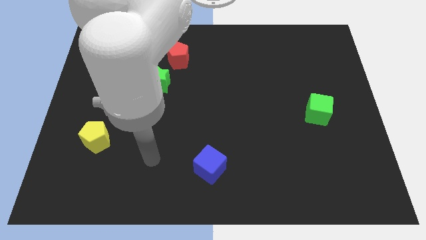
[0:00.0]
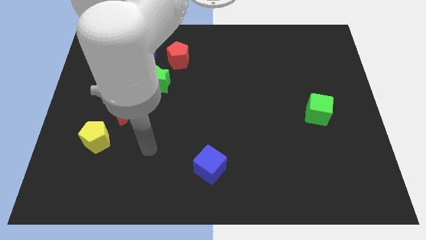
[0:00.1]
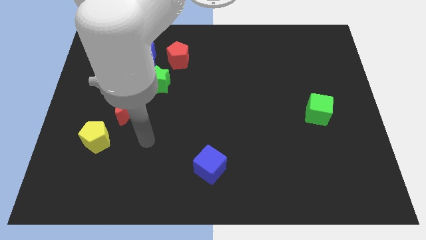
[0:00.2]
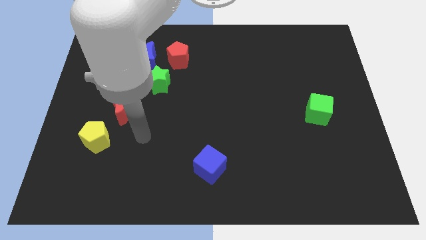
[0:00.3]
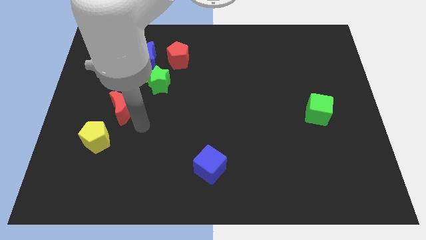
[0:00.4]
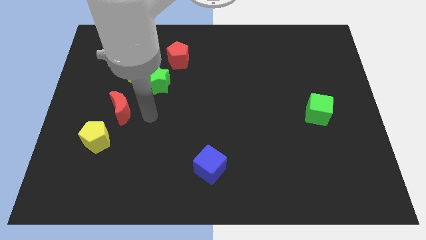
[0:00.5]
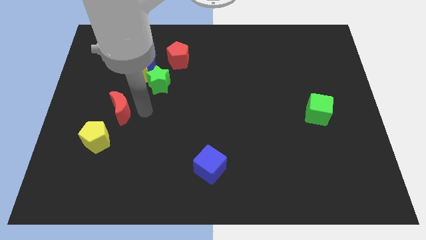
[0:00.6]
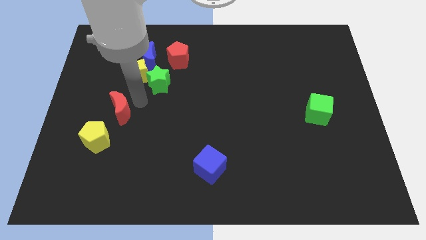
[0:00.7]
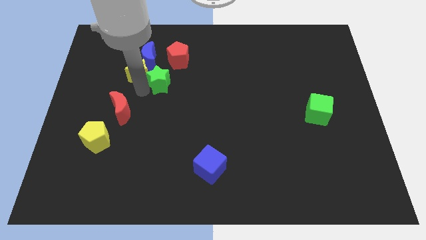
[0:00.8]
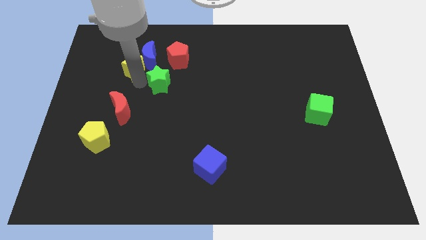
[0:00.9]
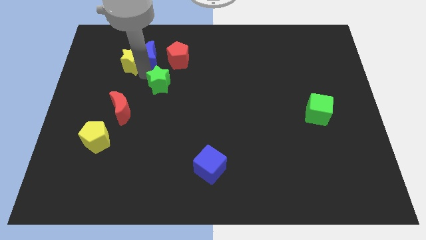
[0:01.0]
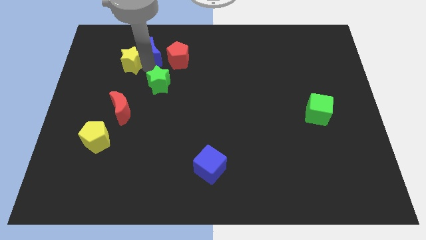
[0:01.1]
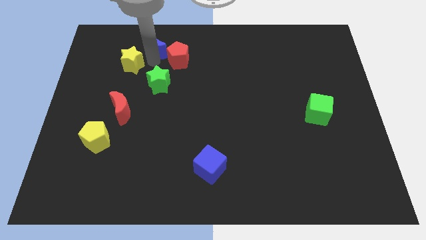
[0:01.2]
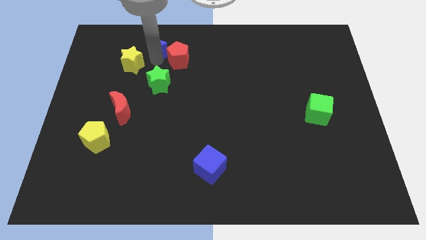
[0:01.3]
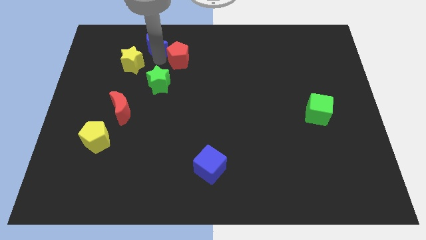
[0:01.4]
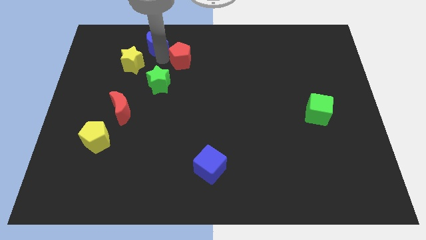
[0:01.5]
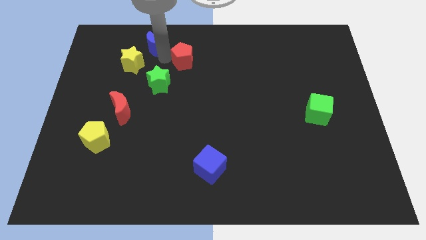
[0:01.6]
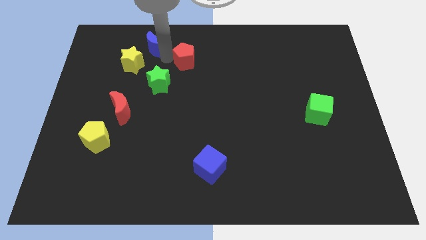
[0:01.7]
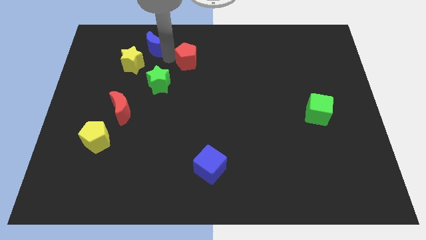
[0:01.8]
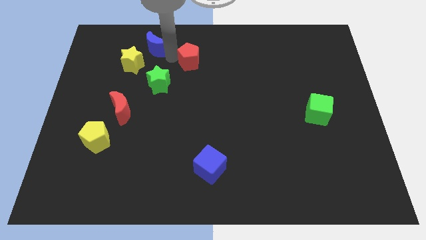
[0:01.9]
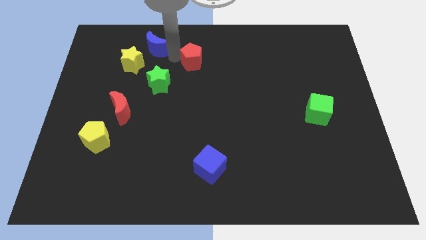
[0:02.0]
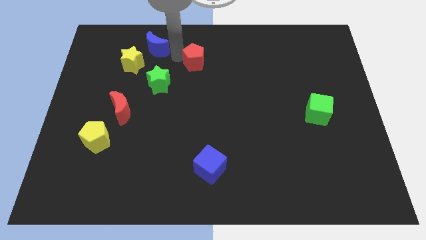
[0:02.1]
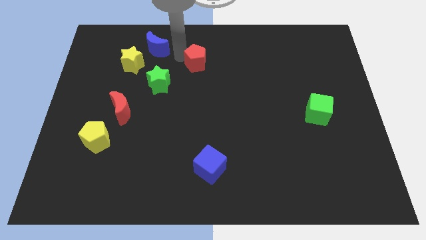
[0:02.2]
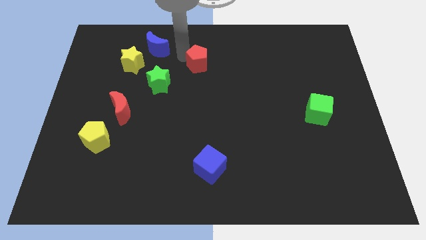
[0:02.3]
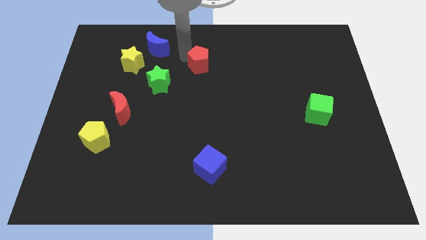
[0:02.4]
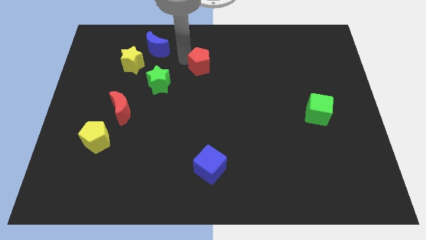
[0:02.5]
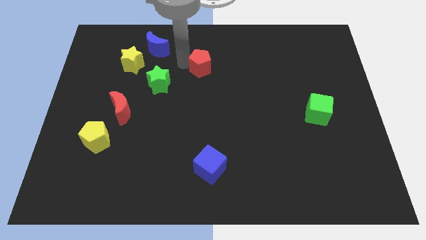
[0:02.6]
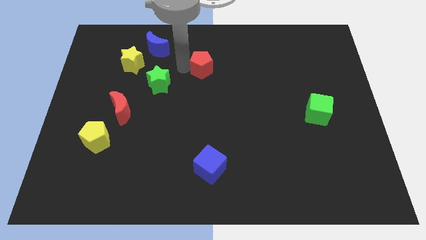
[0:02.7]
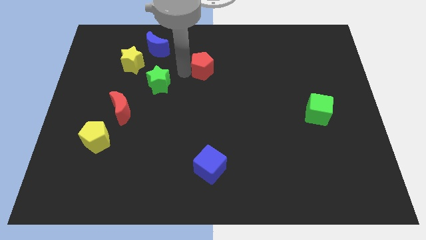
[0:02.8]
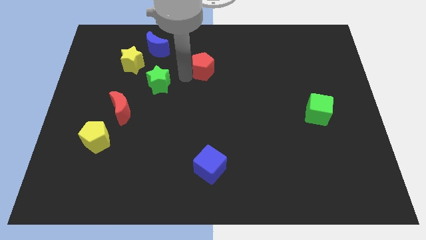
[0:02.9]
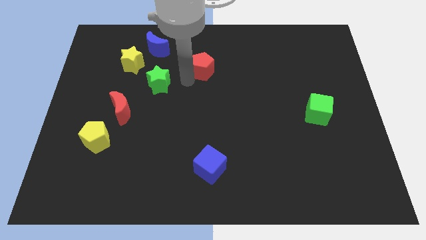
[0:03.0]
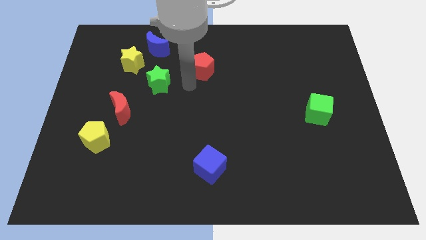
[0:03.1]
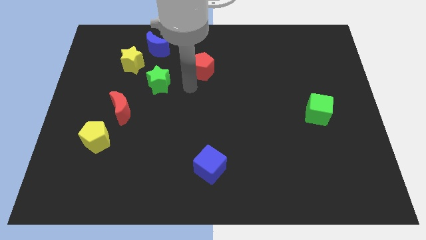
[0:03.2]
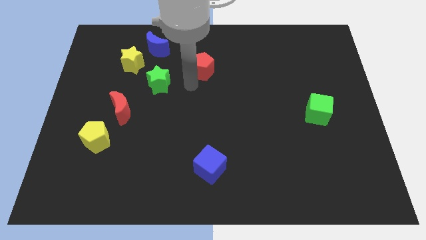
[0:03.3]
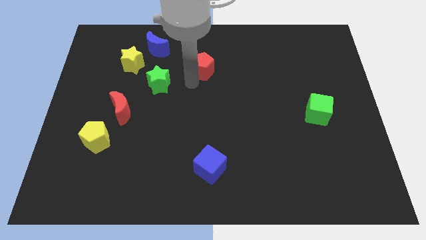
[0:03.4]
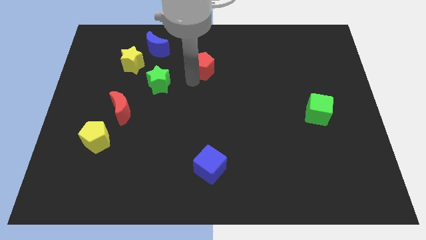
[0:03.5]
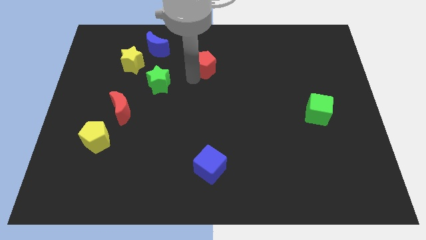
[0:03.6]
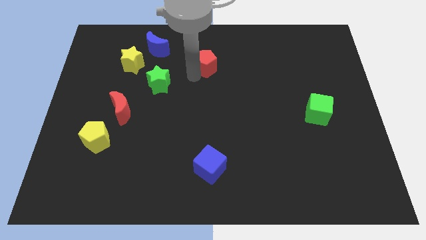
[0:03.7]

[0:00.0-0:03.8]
slide the red pentagon to the right a bit

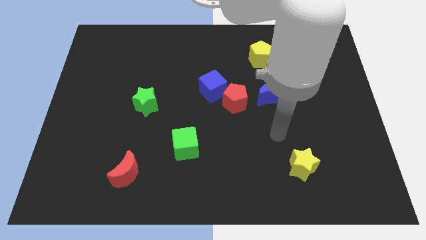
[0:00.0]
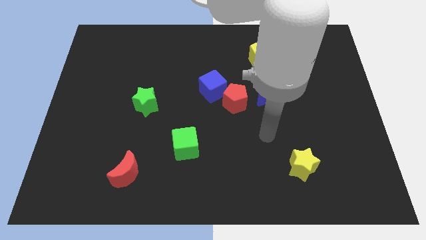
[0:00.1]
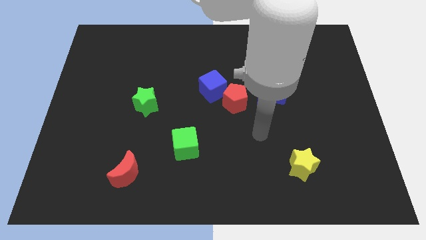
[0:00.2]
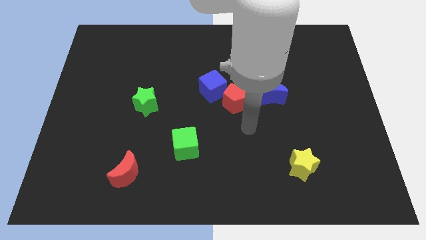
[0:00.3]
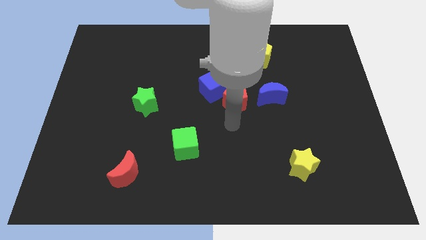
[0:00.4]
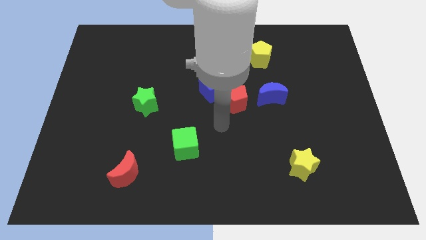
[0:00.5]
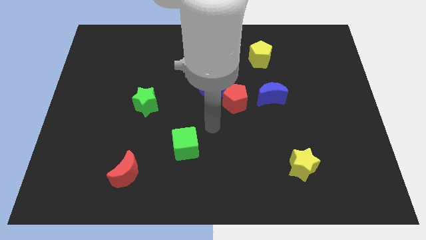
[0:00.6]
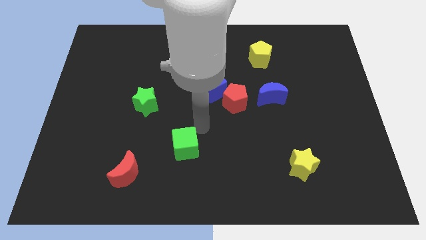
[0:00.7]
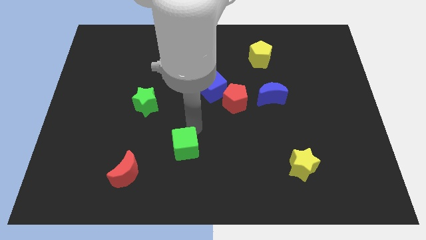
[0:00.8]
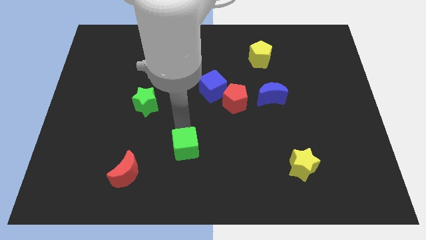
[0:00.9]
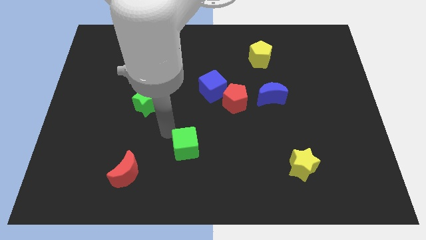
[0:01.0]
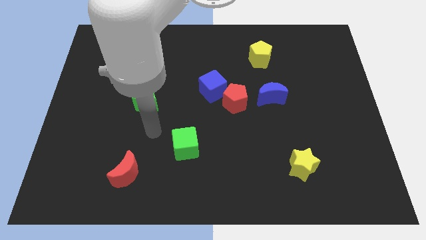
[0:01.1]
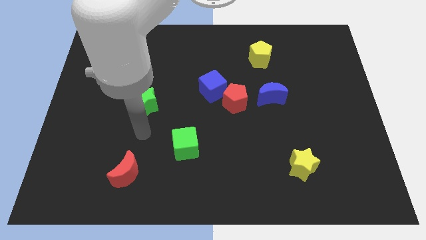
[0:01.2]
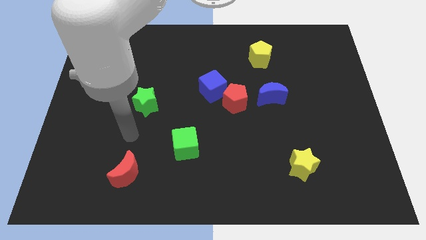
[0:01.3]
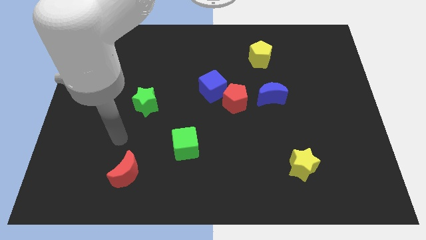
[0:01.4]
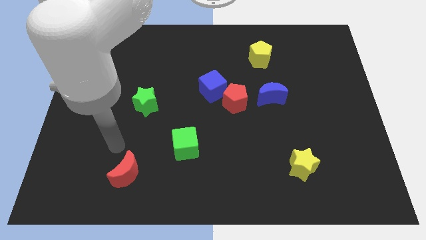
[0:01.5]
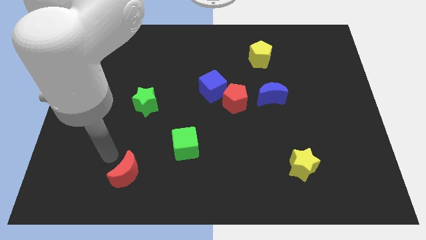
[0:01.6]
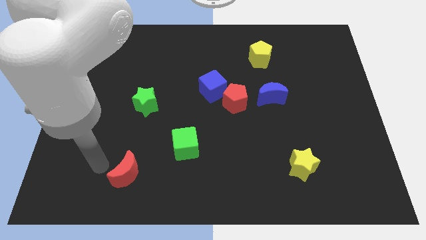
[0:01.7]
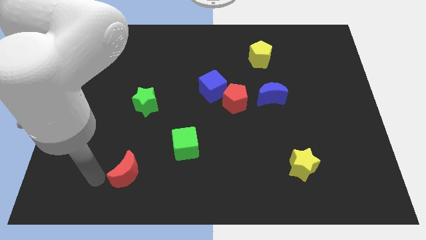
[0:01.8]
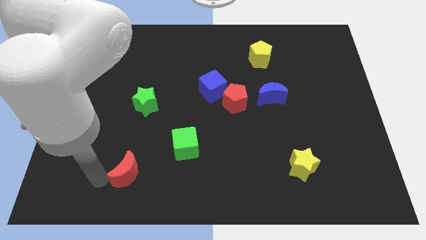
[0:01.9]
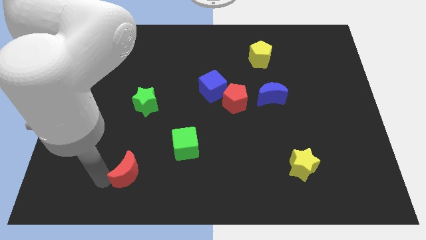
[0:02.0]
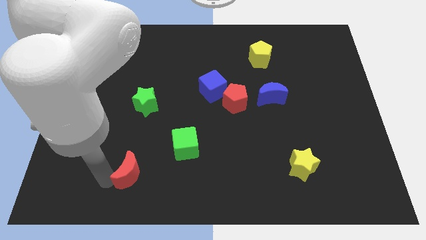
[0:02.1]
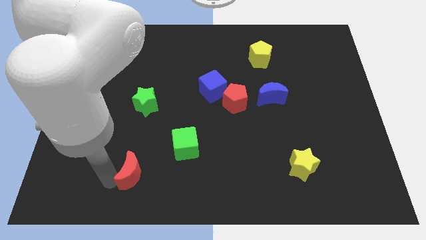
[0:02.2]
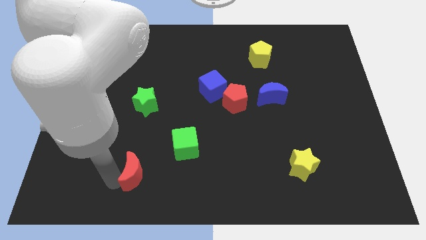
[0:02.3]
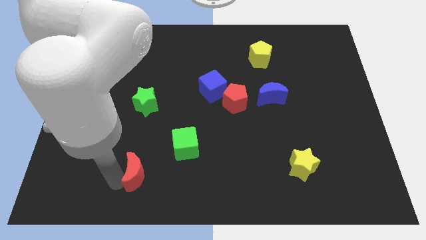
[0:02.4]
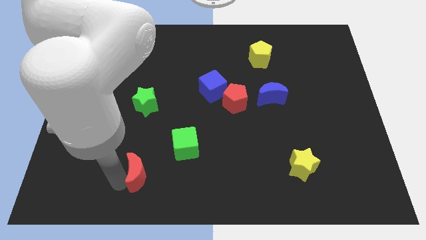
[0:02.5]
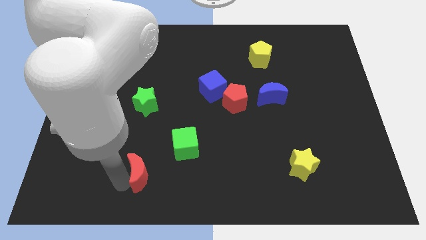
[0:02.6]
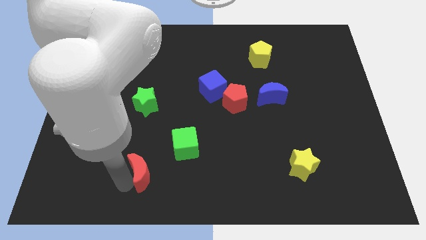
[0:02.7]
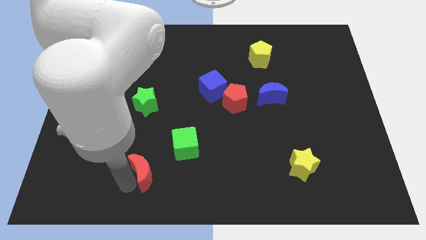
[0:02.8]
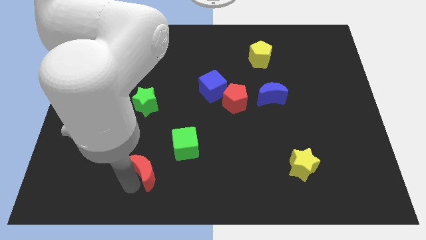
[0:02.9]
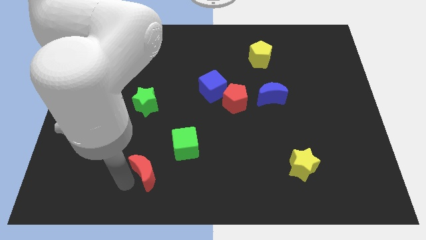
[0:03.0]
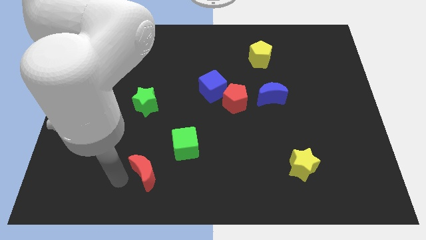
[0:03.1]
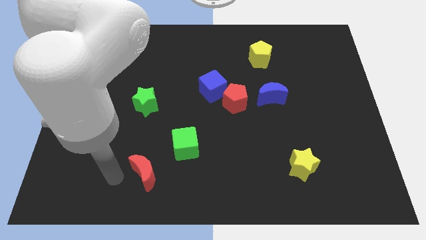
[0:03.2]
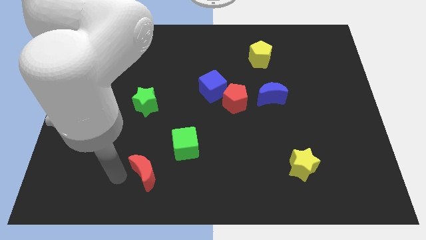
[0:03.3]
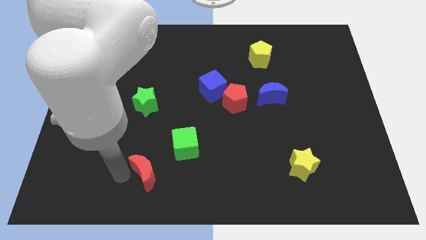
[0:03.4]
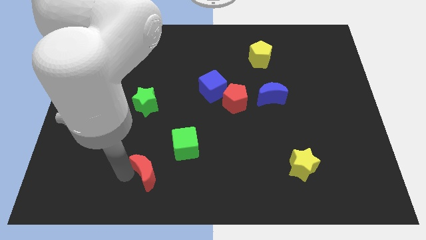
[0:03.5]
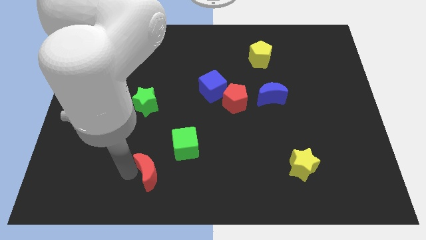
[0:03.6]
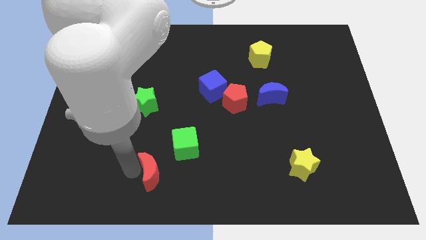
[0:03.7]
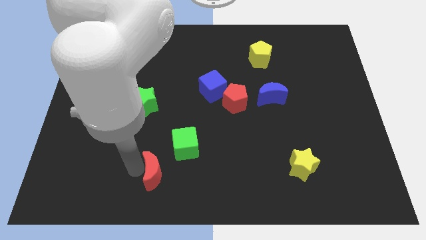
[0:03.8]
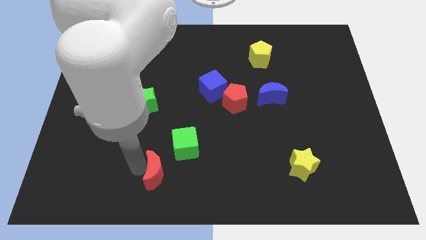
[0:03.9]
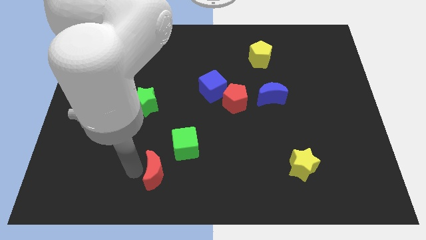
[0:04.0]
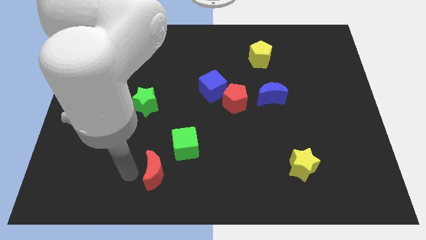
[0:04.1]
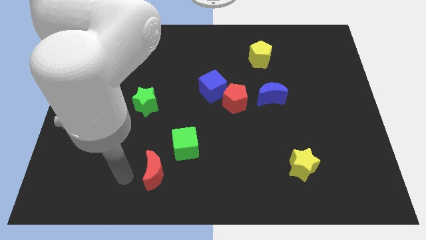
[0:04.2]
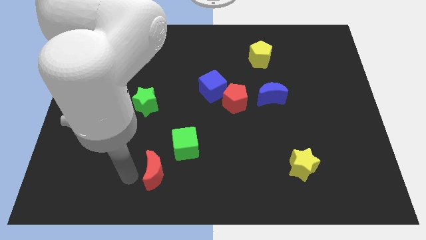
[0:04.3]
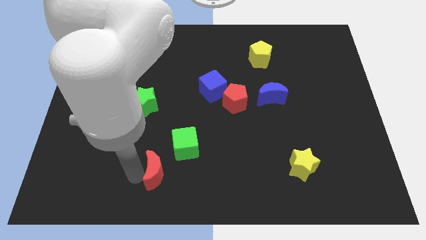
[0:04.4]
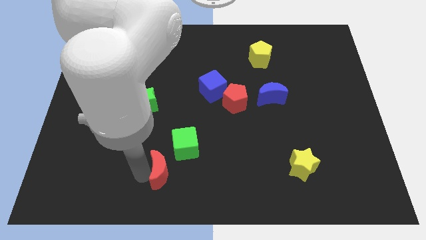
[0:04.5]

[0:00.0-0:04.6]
push the red moon to the right slightly
